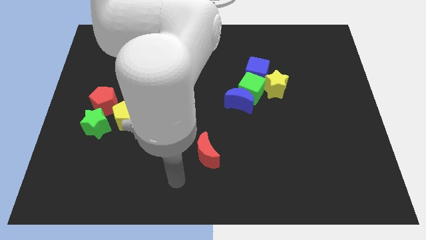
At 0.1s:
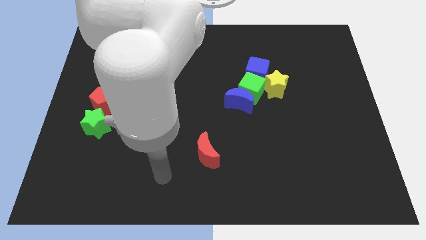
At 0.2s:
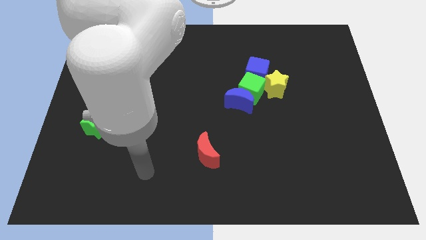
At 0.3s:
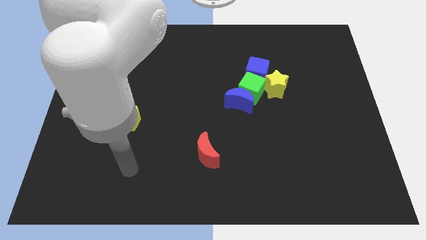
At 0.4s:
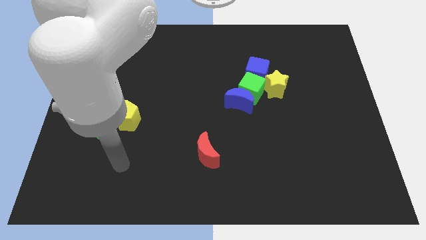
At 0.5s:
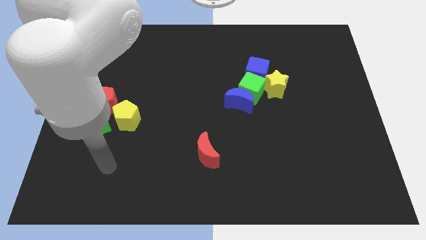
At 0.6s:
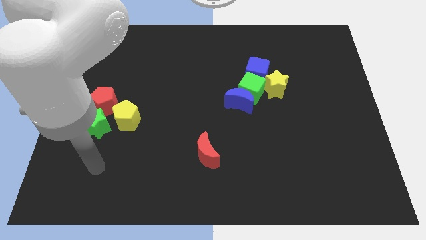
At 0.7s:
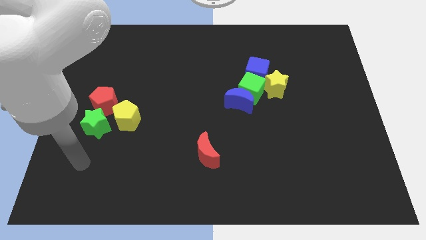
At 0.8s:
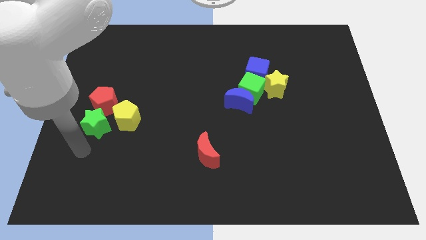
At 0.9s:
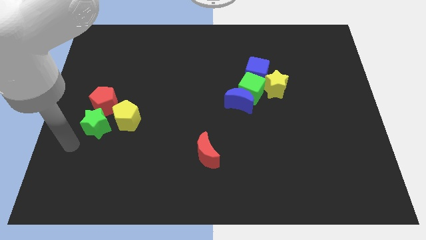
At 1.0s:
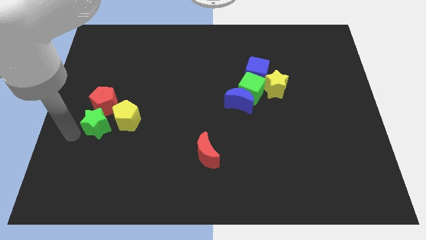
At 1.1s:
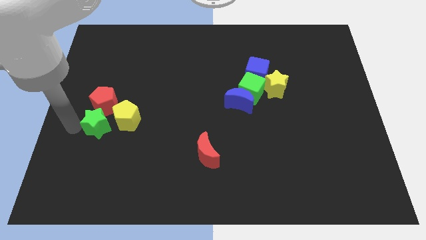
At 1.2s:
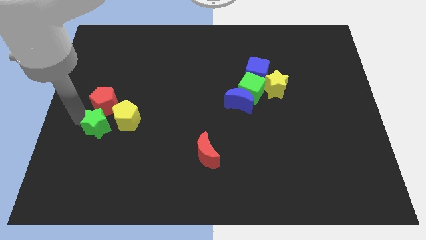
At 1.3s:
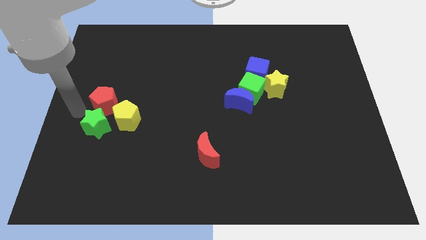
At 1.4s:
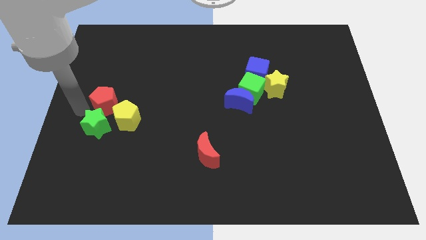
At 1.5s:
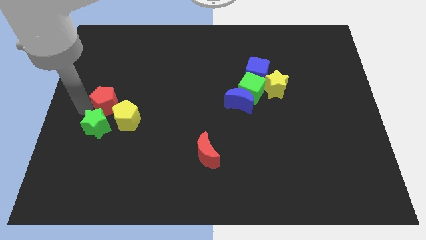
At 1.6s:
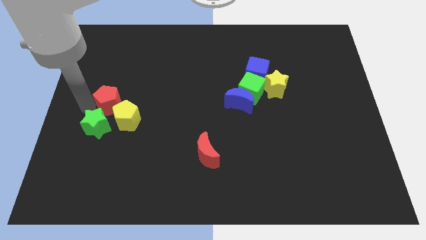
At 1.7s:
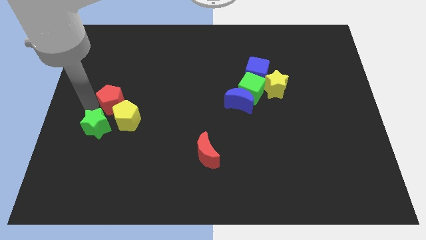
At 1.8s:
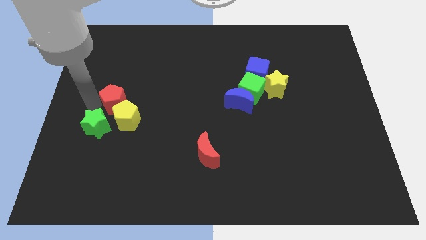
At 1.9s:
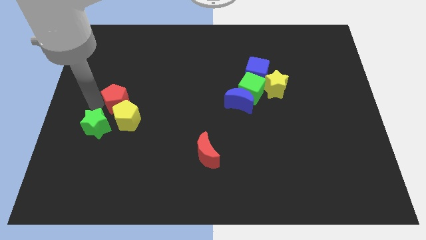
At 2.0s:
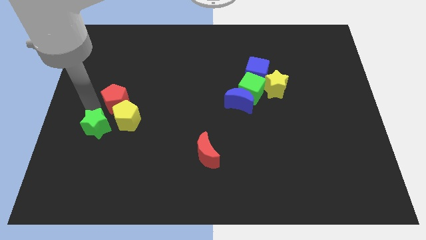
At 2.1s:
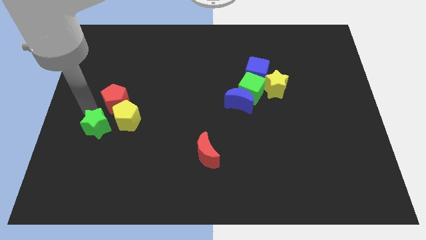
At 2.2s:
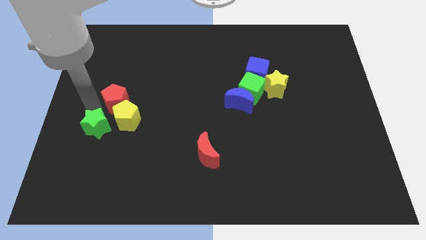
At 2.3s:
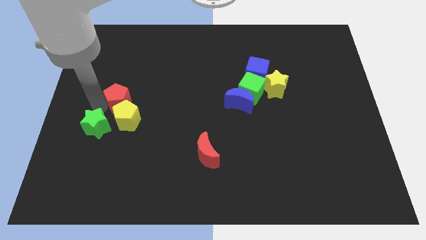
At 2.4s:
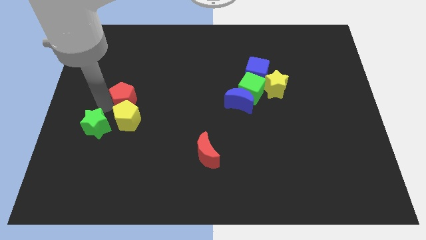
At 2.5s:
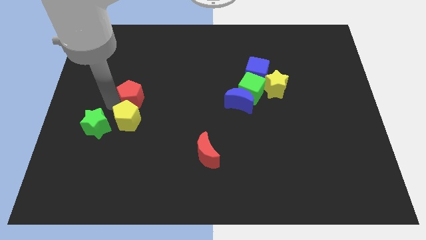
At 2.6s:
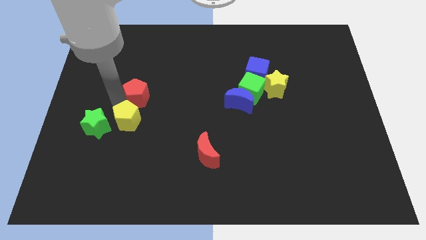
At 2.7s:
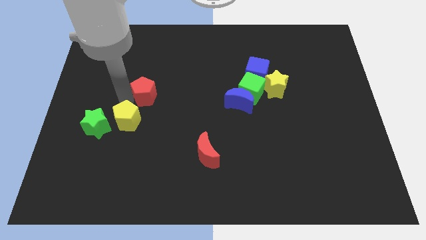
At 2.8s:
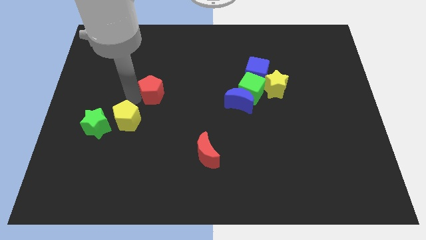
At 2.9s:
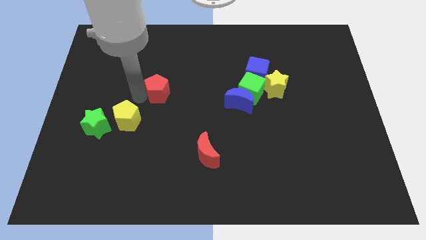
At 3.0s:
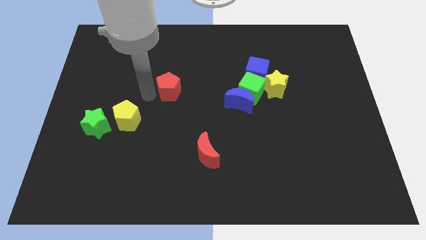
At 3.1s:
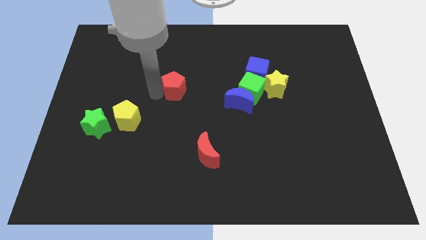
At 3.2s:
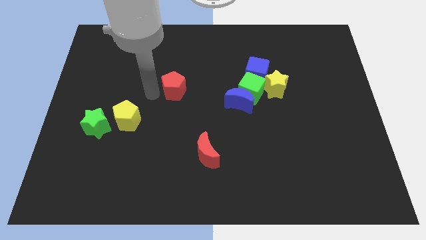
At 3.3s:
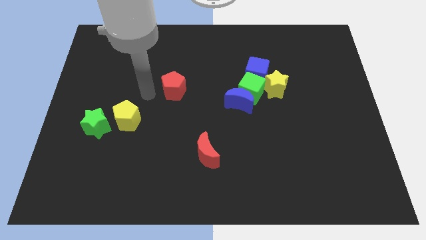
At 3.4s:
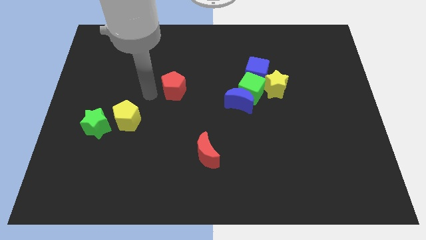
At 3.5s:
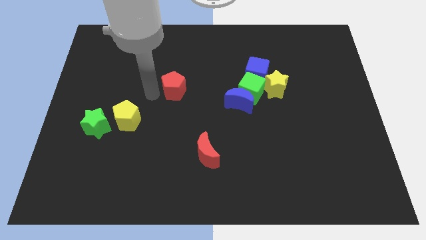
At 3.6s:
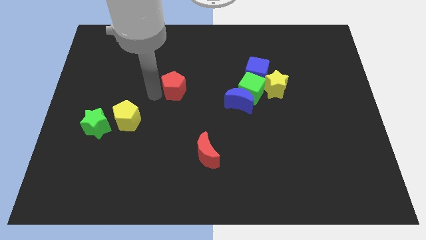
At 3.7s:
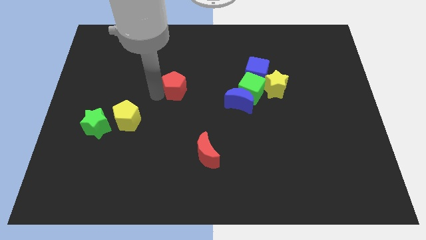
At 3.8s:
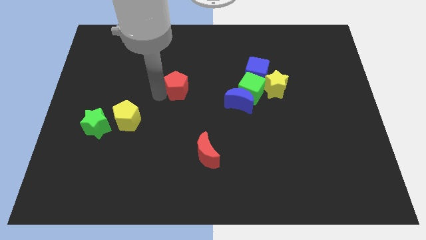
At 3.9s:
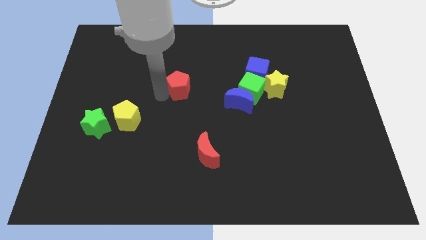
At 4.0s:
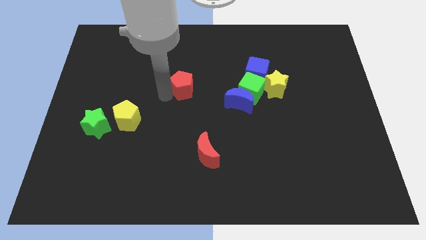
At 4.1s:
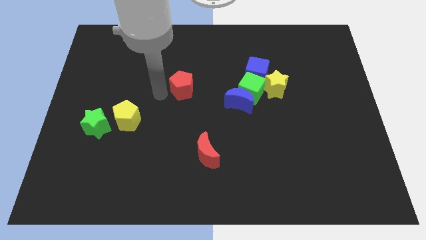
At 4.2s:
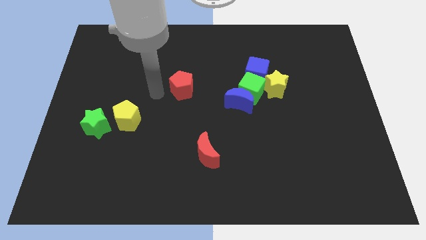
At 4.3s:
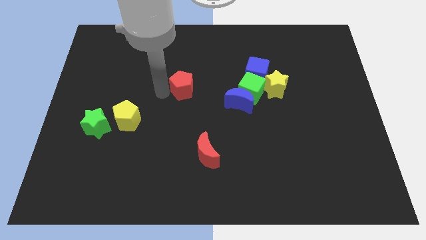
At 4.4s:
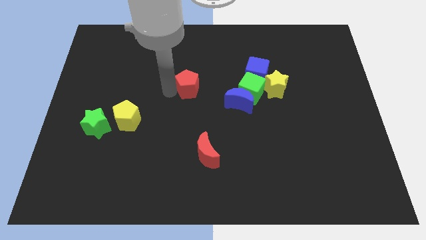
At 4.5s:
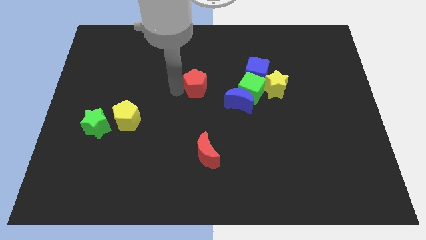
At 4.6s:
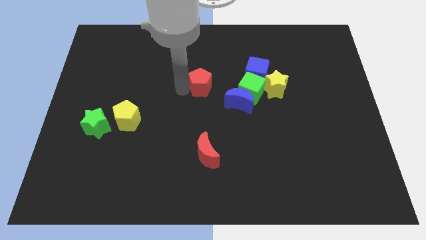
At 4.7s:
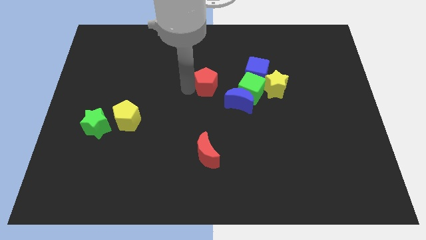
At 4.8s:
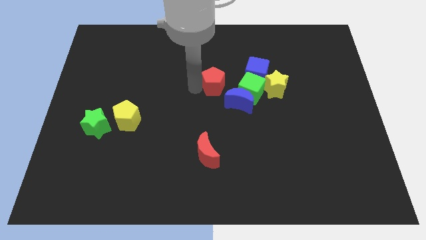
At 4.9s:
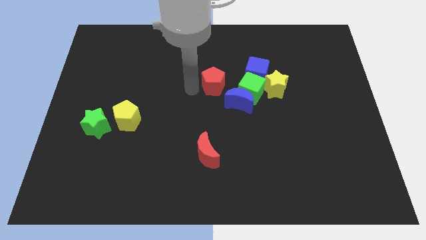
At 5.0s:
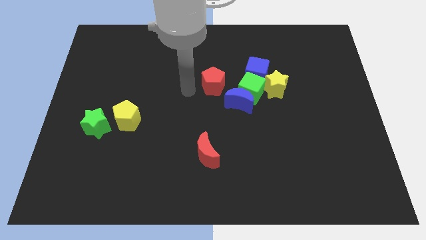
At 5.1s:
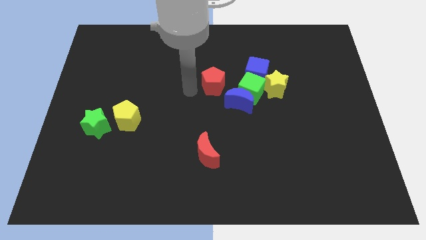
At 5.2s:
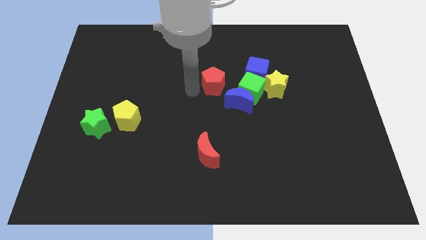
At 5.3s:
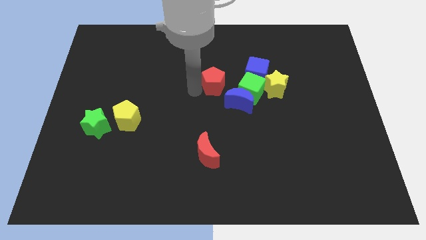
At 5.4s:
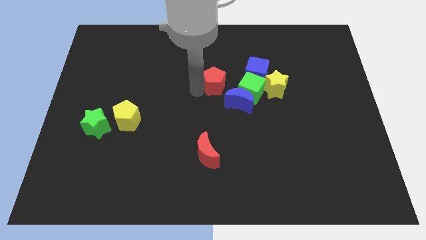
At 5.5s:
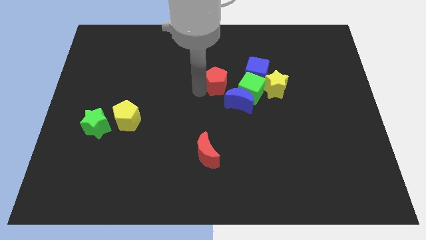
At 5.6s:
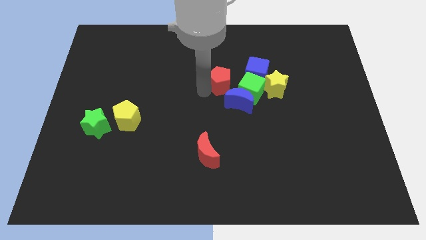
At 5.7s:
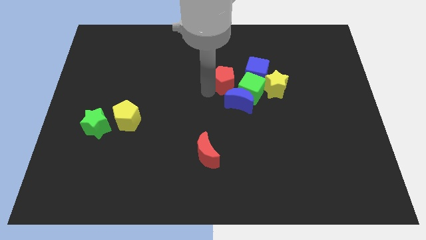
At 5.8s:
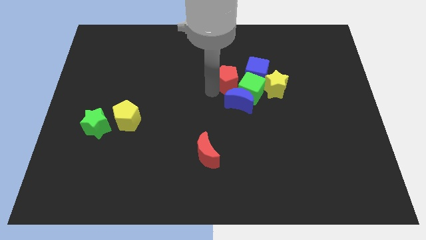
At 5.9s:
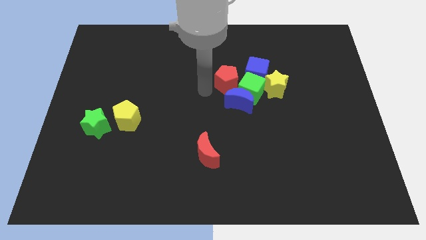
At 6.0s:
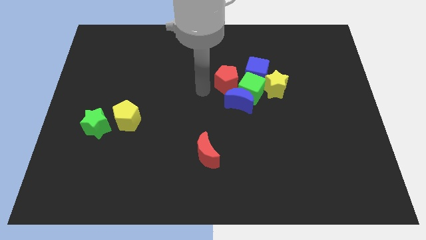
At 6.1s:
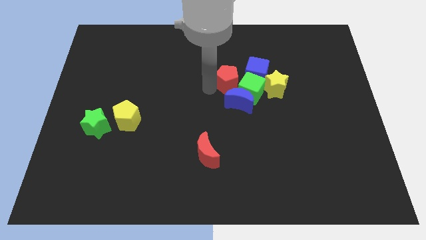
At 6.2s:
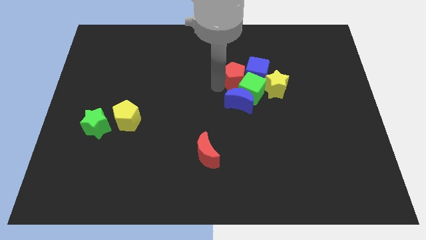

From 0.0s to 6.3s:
slide the red pentagon to the blue cube

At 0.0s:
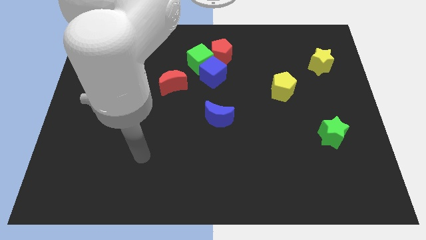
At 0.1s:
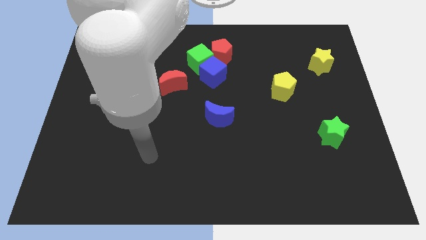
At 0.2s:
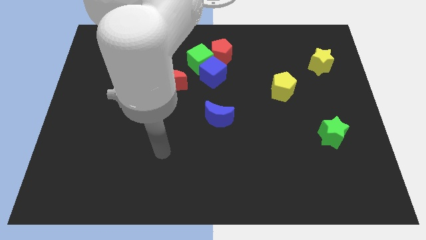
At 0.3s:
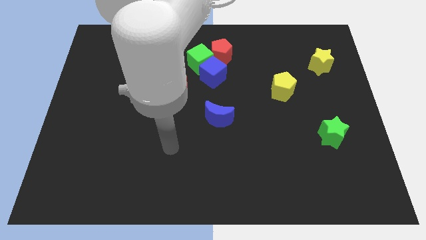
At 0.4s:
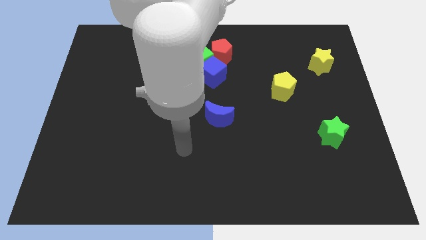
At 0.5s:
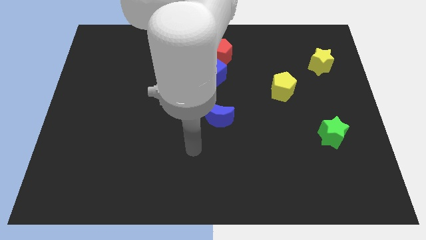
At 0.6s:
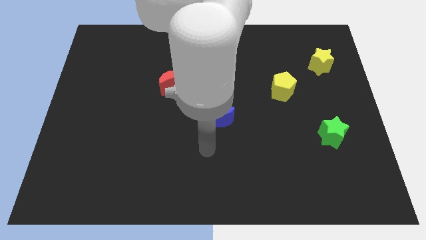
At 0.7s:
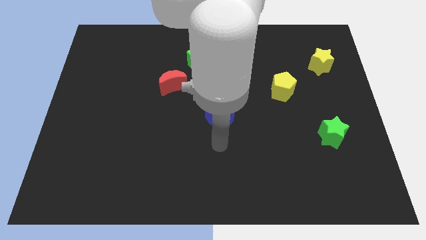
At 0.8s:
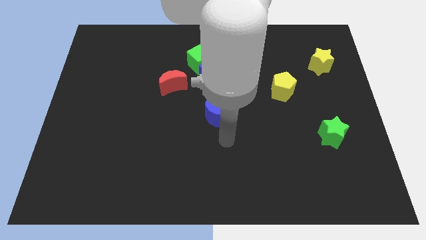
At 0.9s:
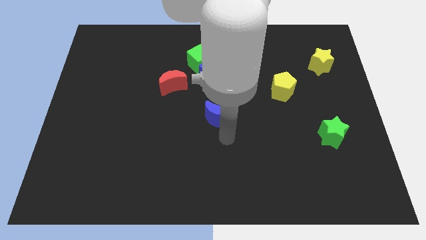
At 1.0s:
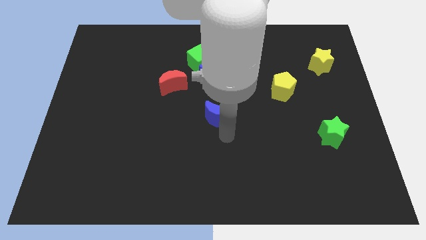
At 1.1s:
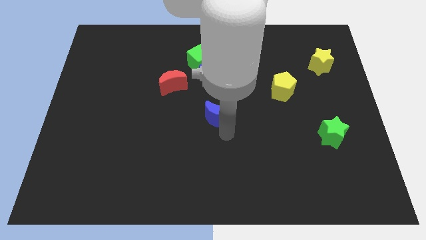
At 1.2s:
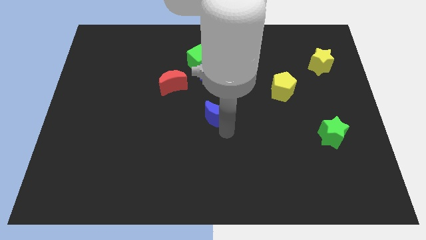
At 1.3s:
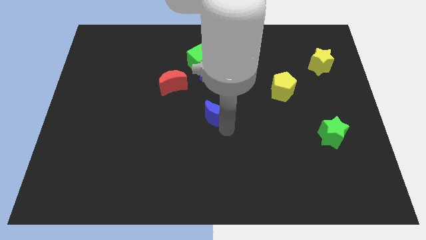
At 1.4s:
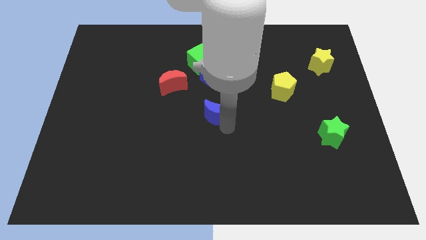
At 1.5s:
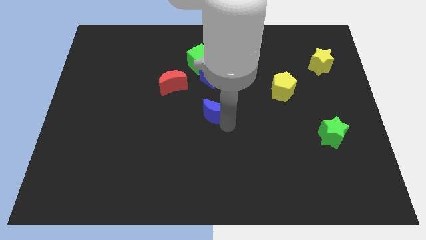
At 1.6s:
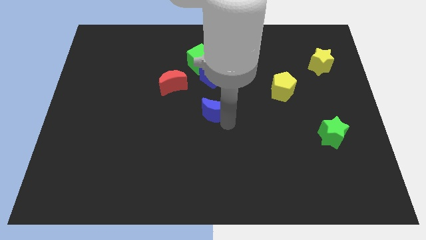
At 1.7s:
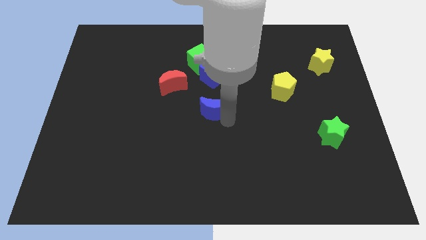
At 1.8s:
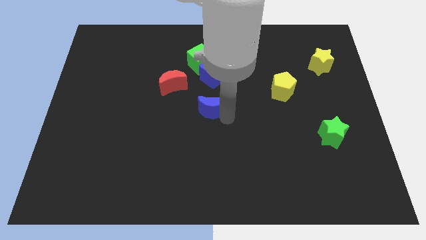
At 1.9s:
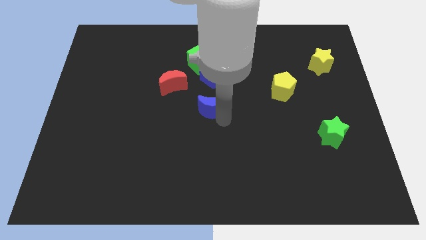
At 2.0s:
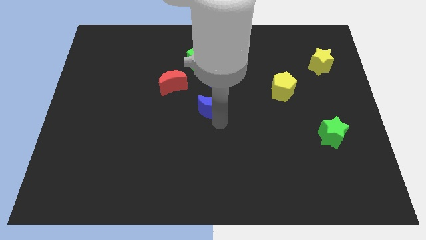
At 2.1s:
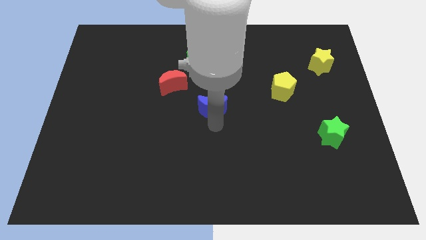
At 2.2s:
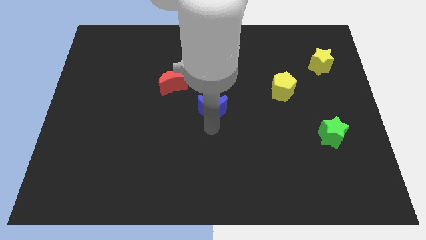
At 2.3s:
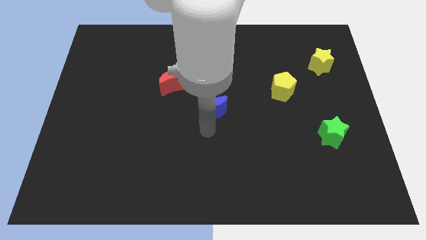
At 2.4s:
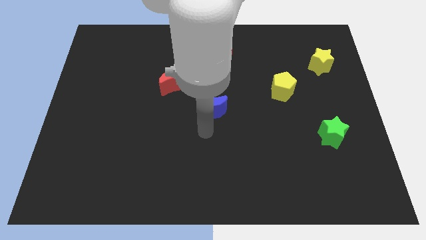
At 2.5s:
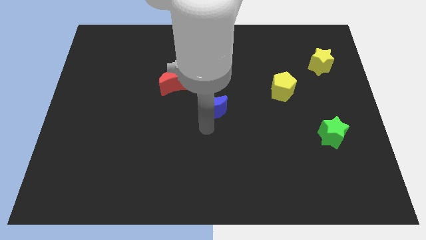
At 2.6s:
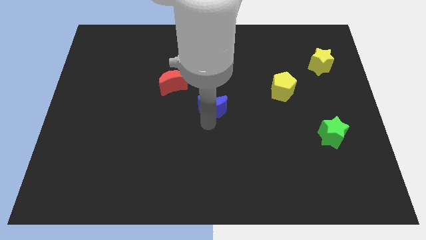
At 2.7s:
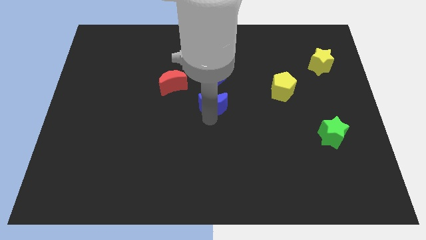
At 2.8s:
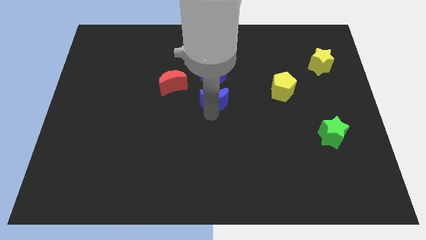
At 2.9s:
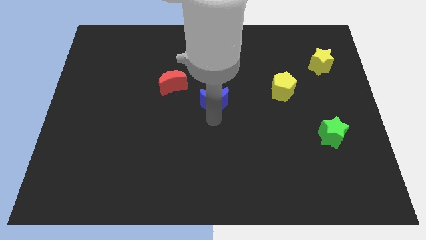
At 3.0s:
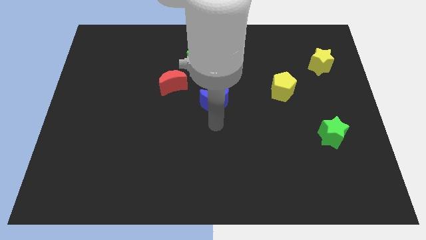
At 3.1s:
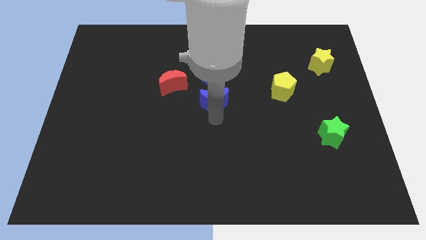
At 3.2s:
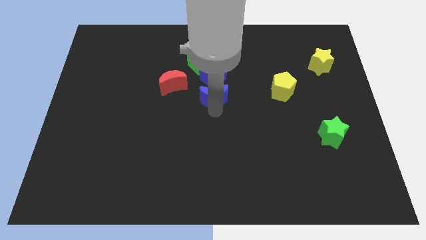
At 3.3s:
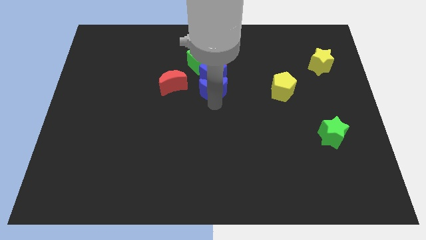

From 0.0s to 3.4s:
move the blue moon to the blue cube
